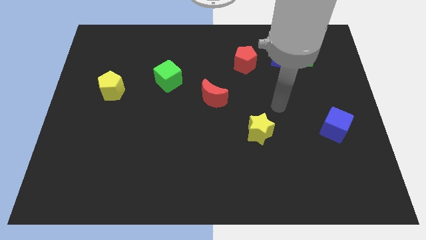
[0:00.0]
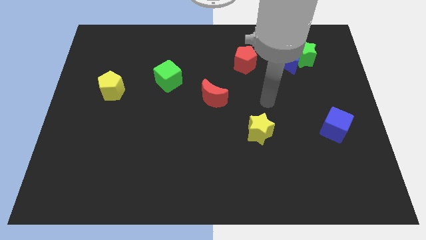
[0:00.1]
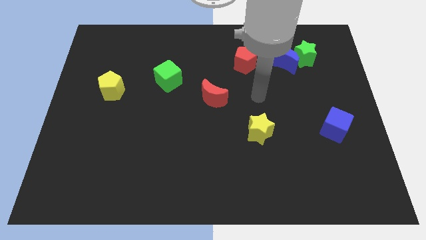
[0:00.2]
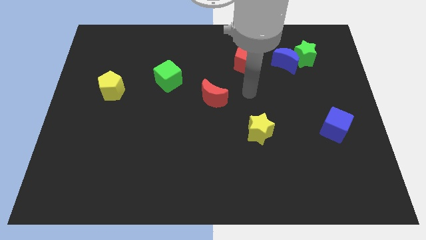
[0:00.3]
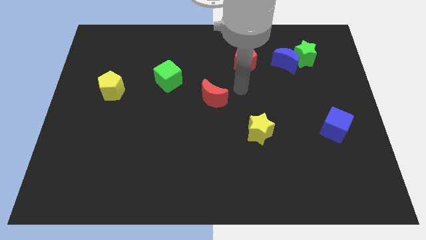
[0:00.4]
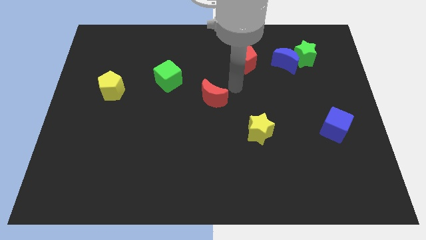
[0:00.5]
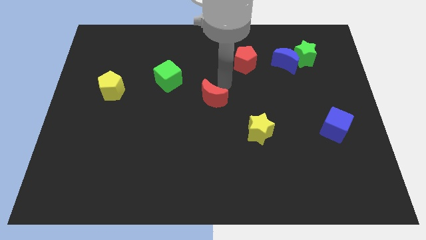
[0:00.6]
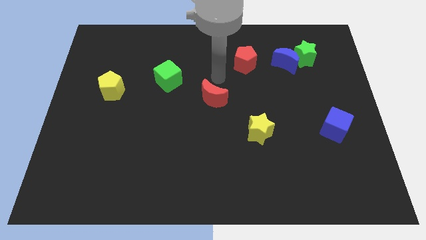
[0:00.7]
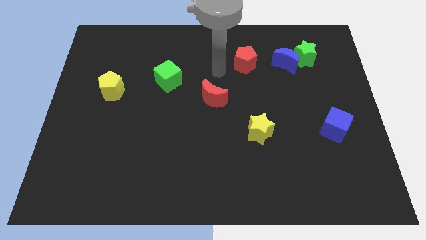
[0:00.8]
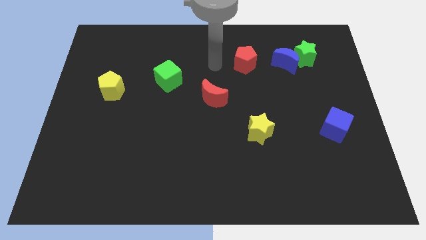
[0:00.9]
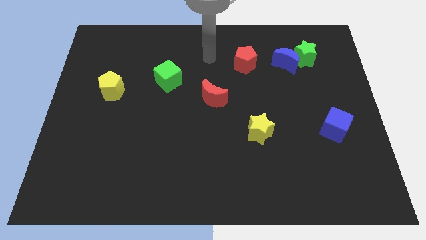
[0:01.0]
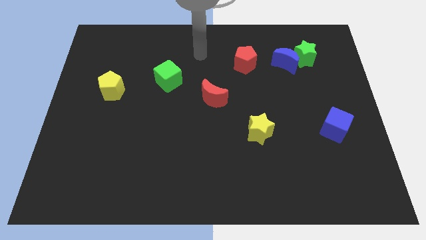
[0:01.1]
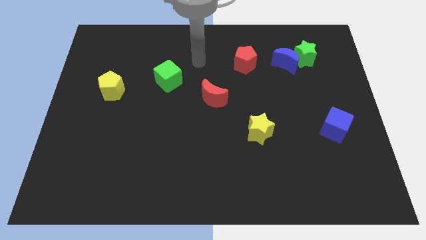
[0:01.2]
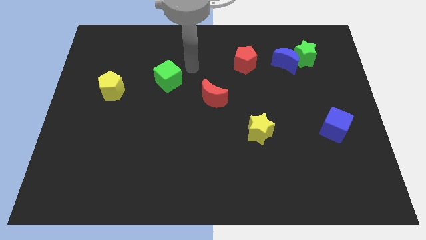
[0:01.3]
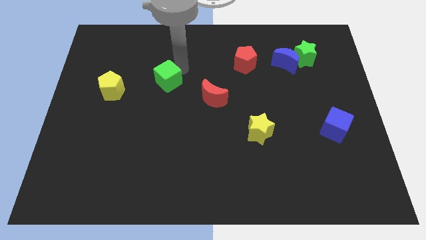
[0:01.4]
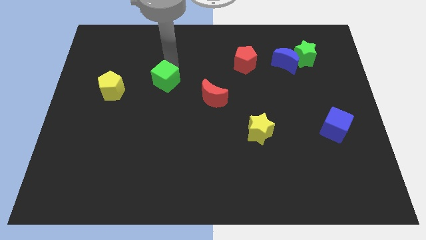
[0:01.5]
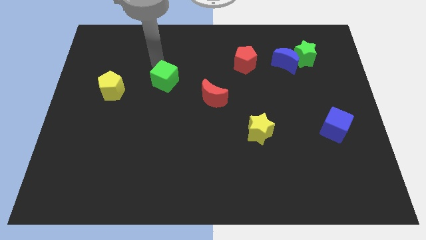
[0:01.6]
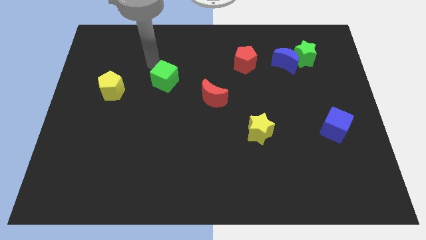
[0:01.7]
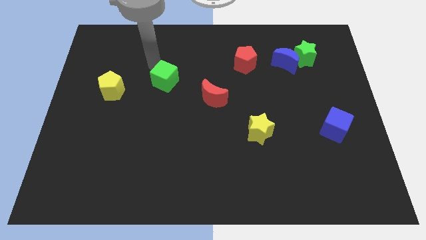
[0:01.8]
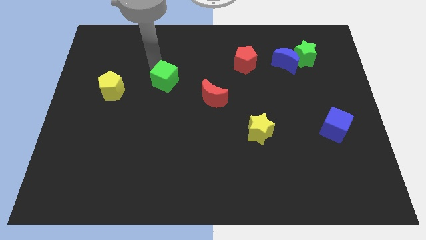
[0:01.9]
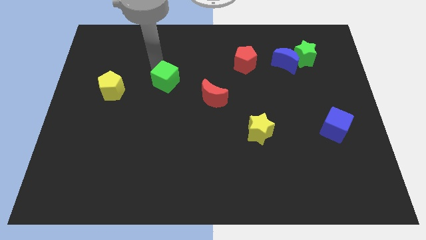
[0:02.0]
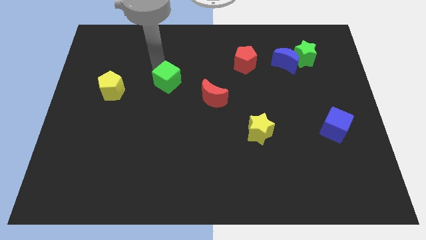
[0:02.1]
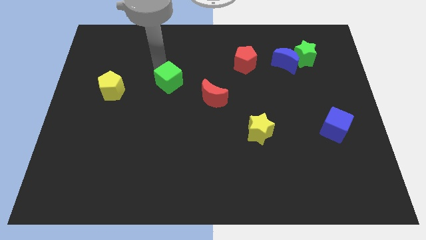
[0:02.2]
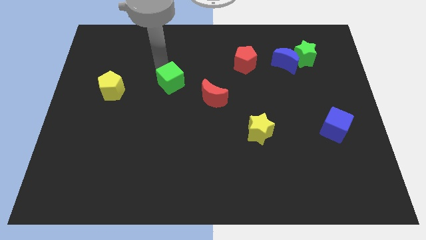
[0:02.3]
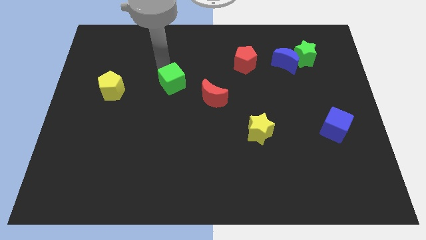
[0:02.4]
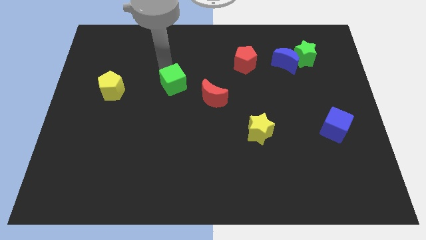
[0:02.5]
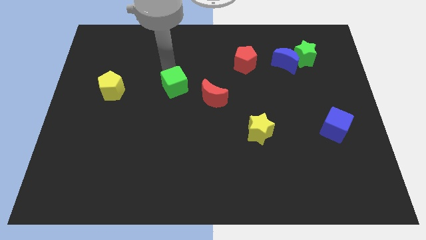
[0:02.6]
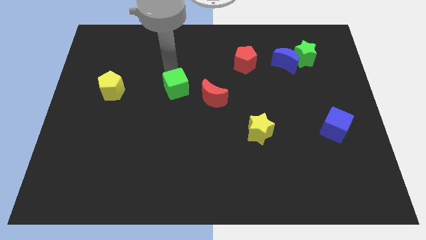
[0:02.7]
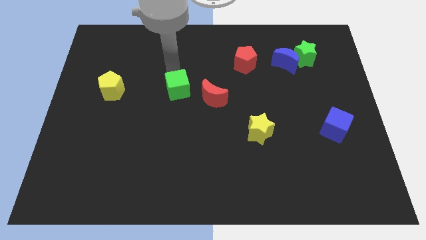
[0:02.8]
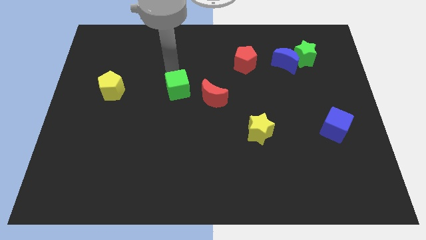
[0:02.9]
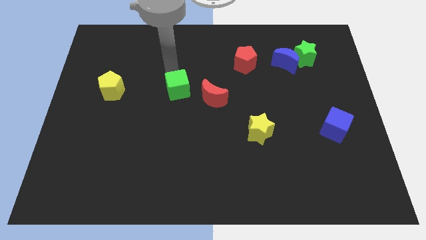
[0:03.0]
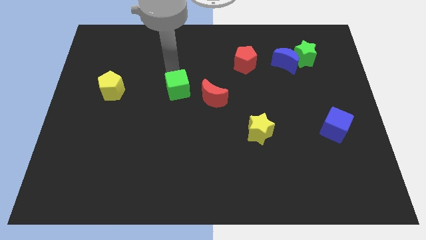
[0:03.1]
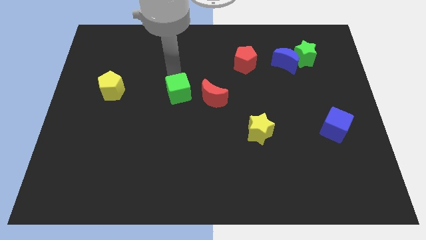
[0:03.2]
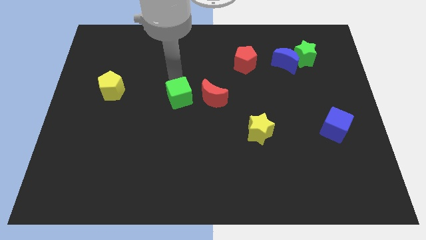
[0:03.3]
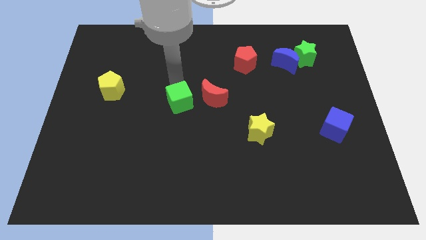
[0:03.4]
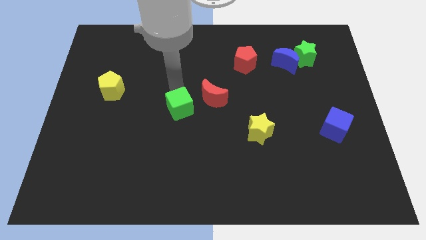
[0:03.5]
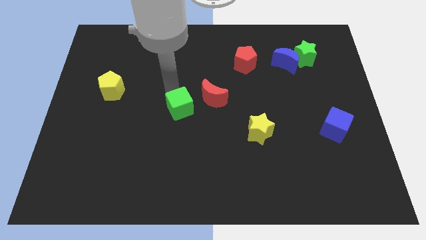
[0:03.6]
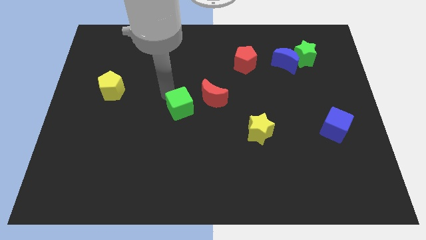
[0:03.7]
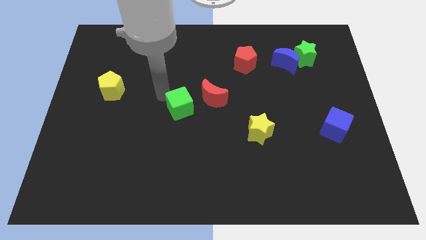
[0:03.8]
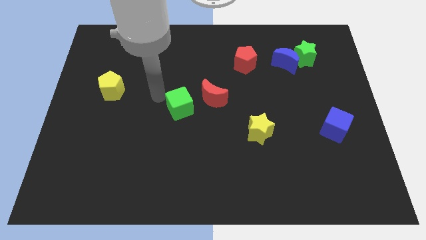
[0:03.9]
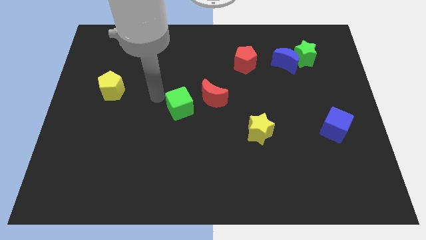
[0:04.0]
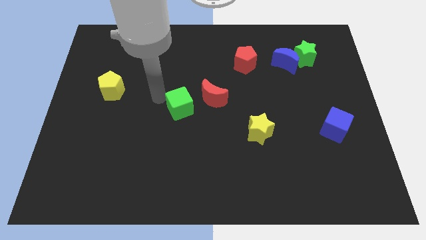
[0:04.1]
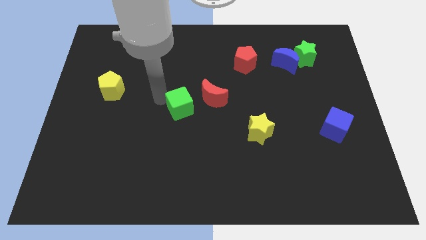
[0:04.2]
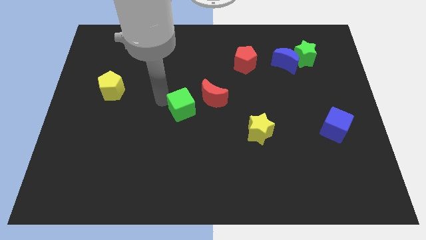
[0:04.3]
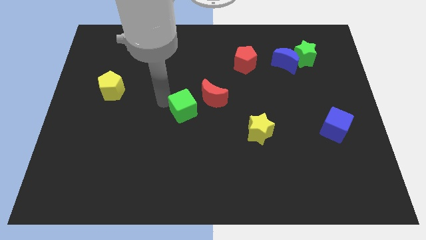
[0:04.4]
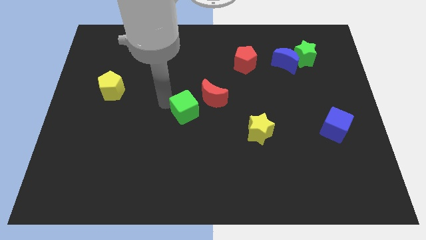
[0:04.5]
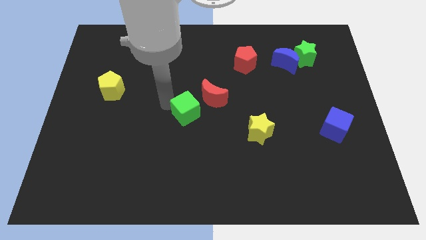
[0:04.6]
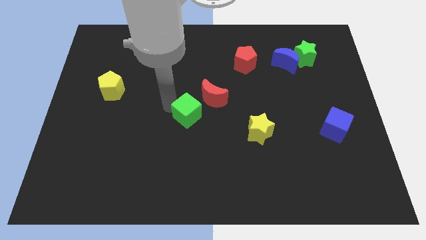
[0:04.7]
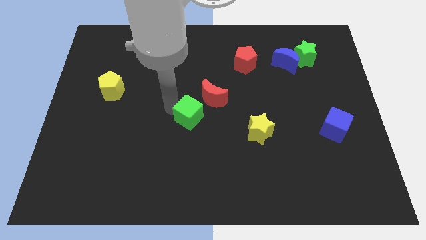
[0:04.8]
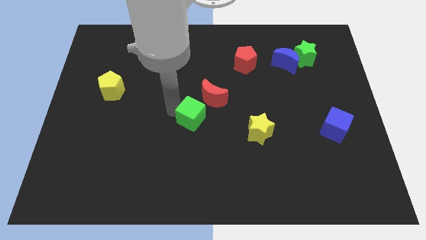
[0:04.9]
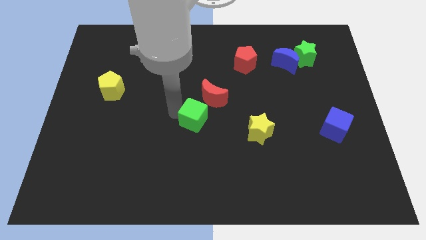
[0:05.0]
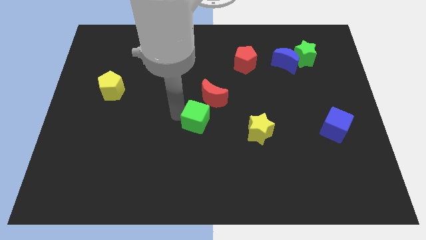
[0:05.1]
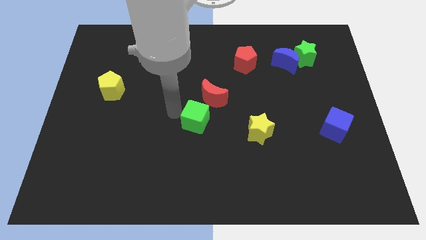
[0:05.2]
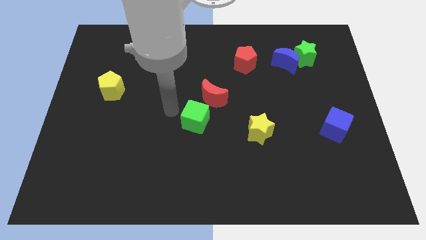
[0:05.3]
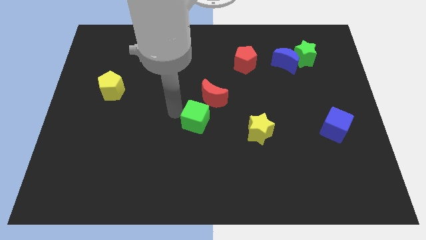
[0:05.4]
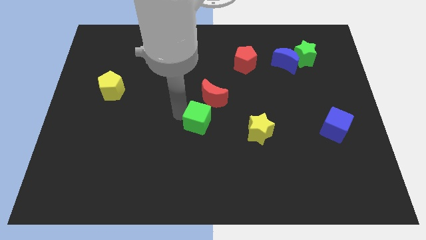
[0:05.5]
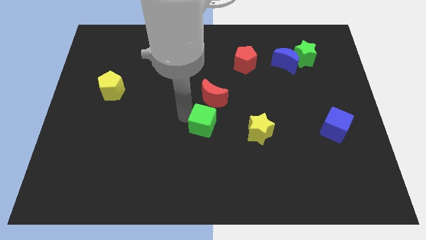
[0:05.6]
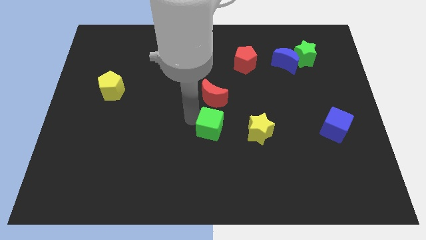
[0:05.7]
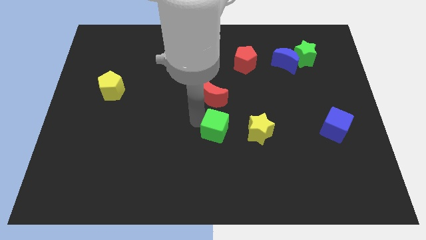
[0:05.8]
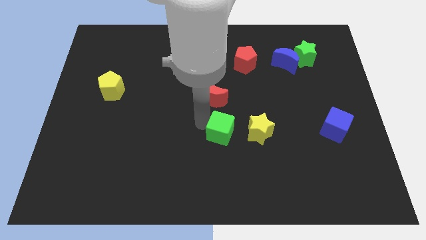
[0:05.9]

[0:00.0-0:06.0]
slide the green cube down and then right

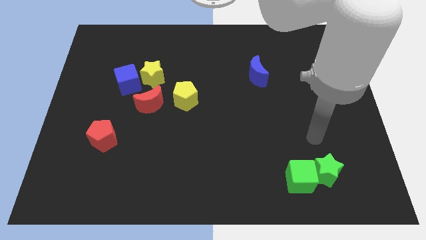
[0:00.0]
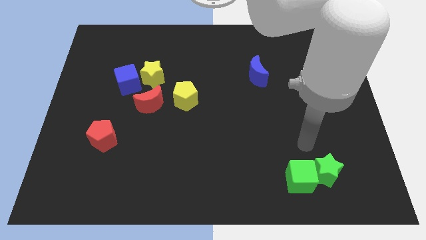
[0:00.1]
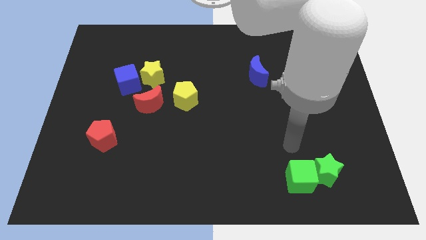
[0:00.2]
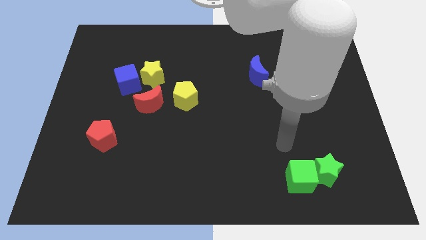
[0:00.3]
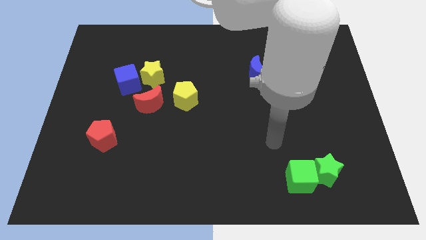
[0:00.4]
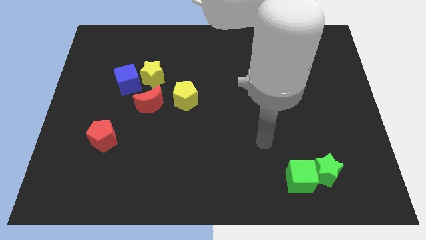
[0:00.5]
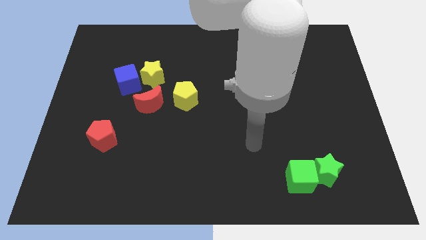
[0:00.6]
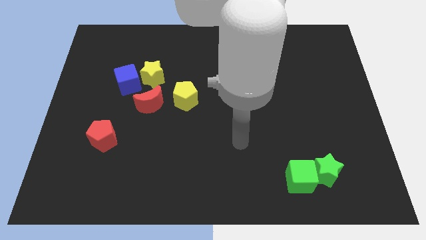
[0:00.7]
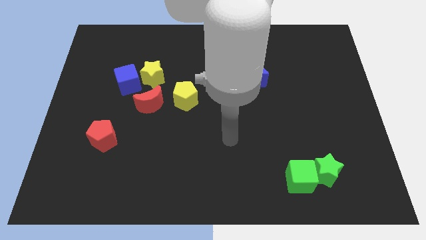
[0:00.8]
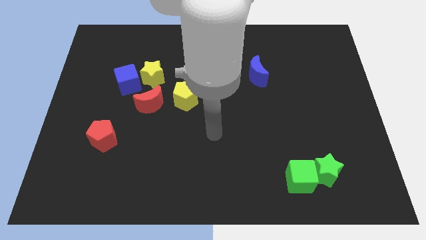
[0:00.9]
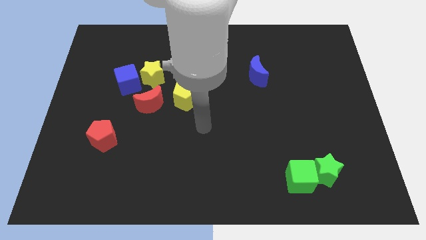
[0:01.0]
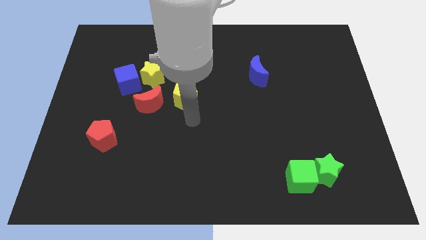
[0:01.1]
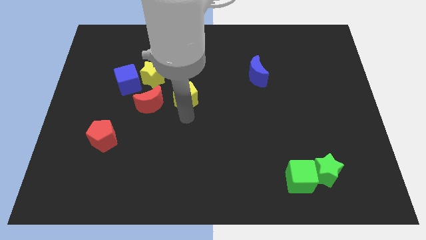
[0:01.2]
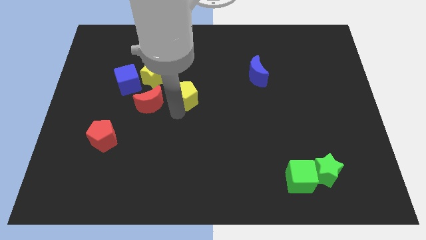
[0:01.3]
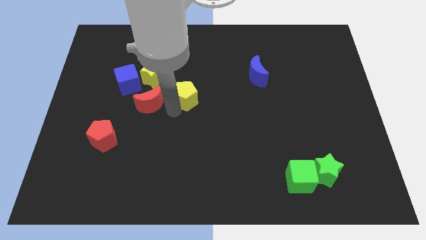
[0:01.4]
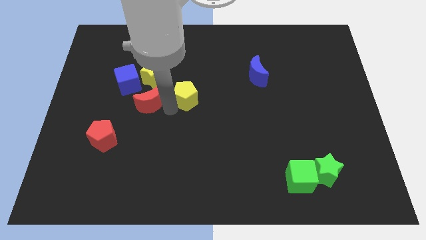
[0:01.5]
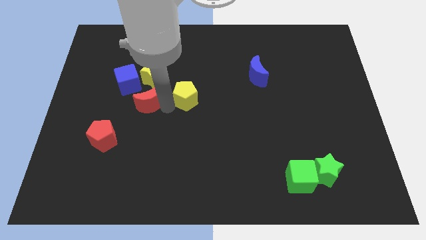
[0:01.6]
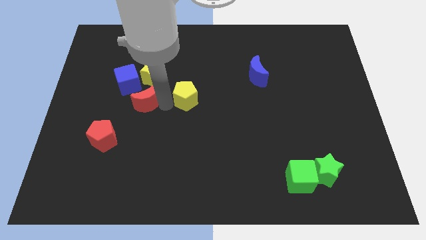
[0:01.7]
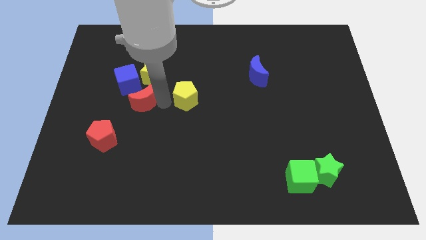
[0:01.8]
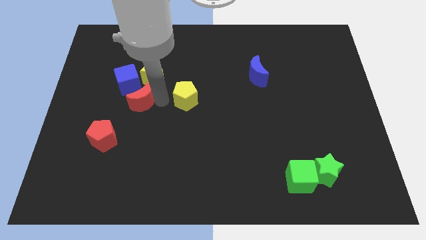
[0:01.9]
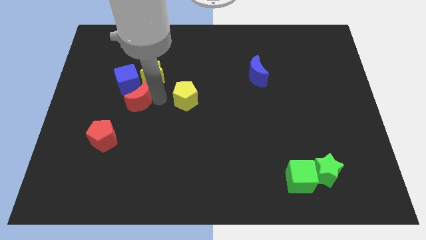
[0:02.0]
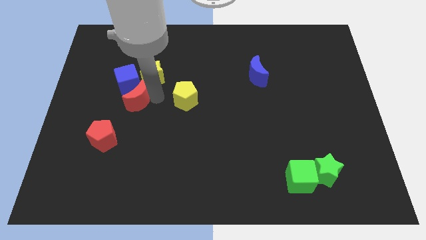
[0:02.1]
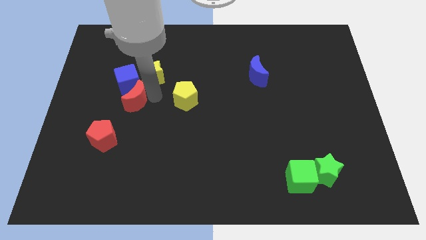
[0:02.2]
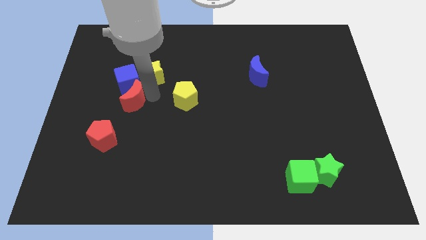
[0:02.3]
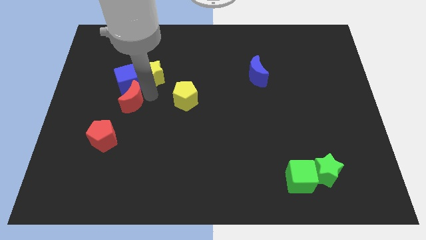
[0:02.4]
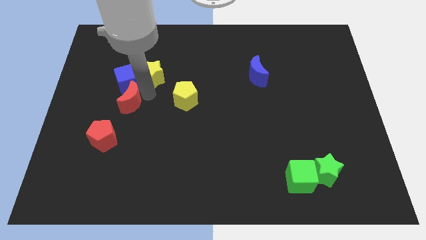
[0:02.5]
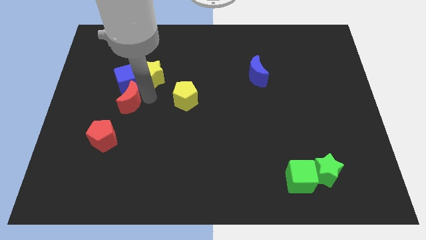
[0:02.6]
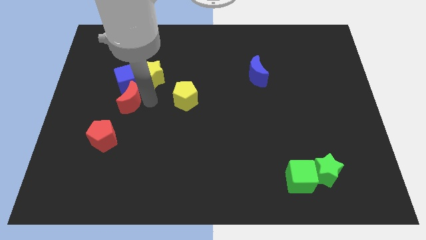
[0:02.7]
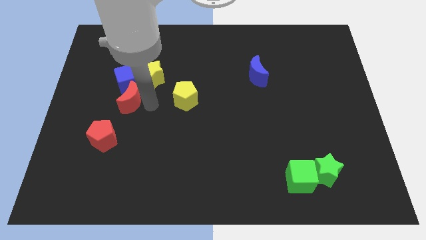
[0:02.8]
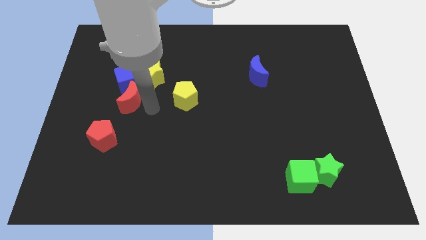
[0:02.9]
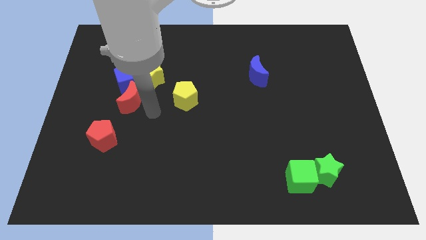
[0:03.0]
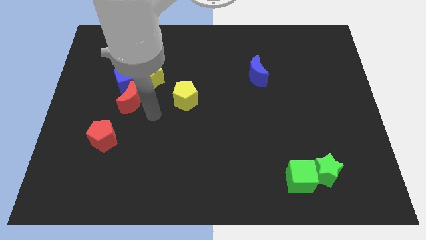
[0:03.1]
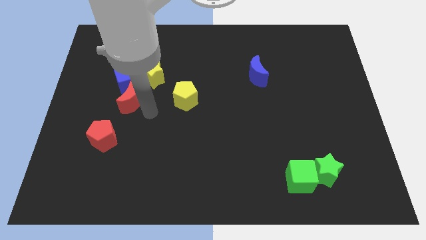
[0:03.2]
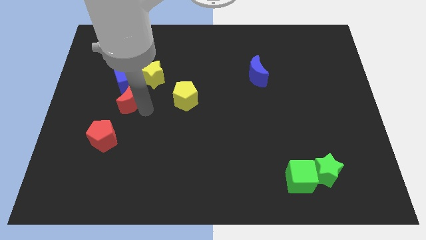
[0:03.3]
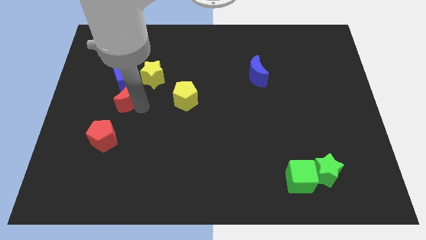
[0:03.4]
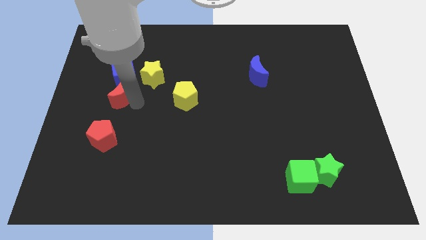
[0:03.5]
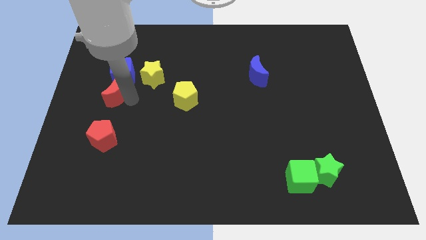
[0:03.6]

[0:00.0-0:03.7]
slide the red moon upwards and left diagonally a little
